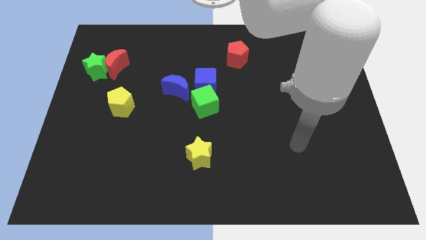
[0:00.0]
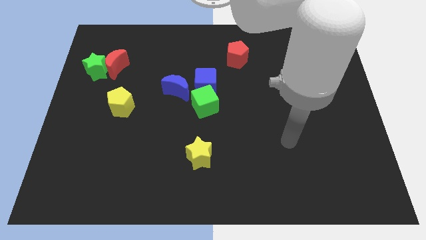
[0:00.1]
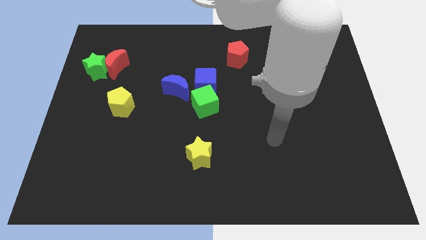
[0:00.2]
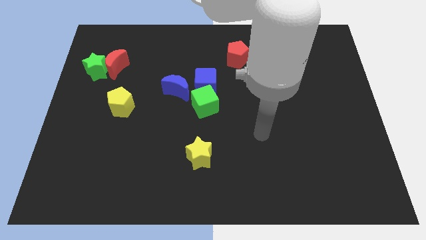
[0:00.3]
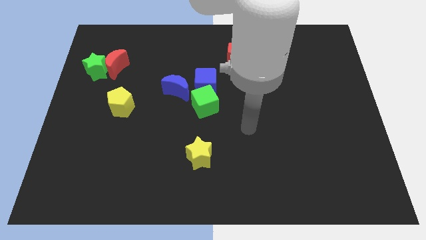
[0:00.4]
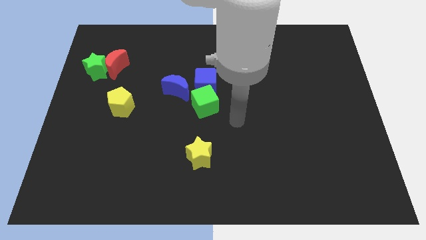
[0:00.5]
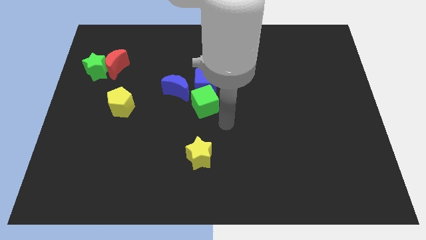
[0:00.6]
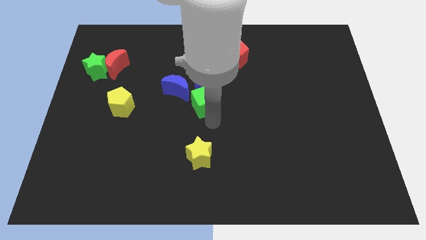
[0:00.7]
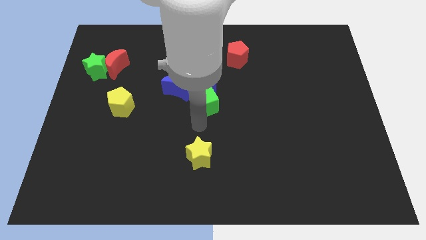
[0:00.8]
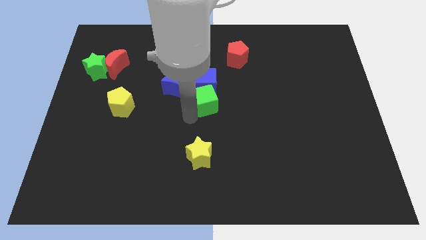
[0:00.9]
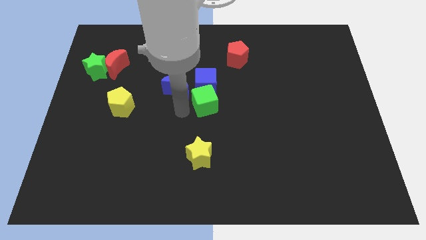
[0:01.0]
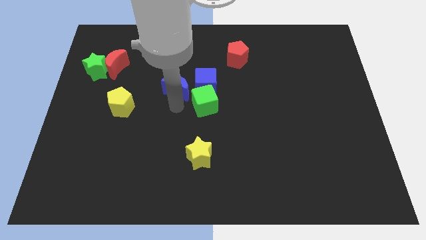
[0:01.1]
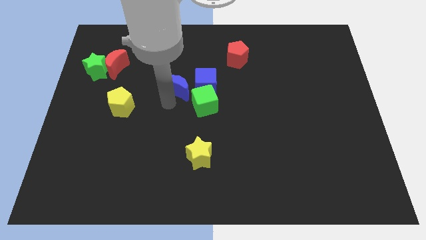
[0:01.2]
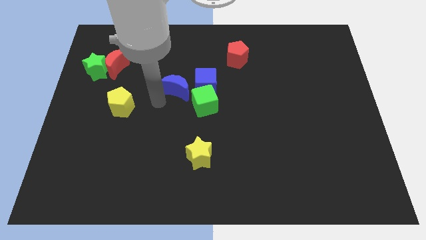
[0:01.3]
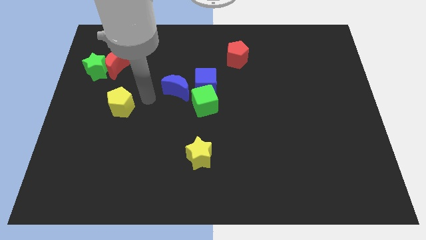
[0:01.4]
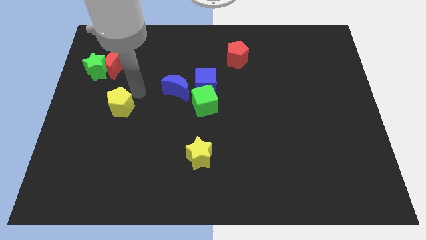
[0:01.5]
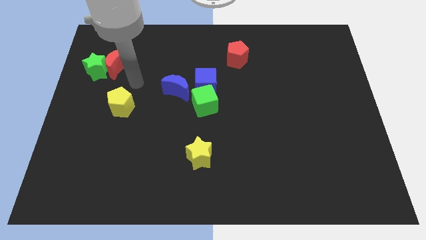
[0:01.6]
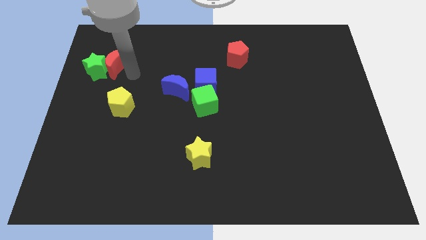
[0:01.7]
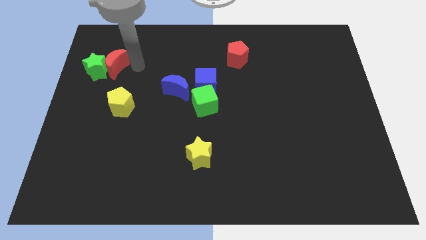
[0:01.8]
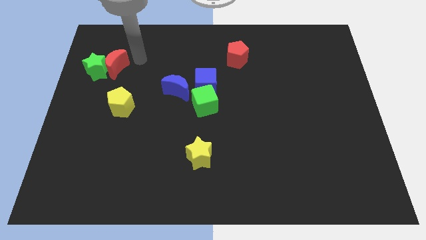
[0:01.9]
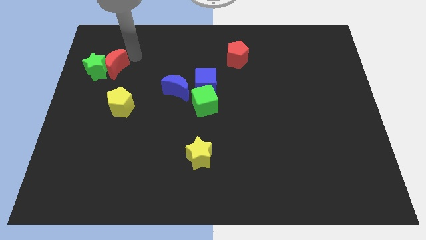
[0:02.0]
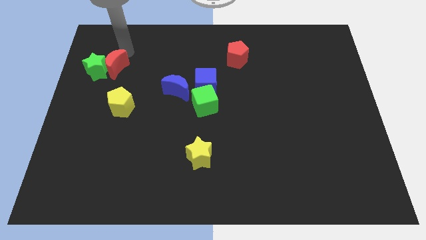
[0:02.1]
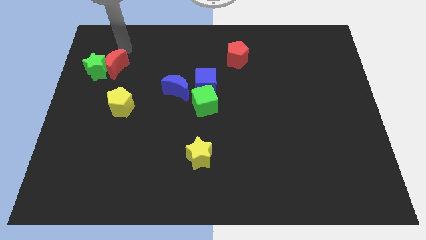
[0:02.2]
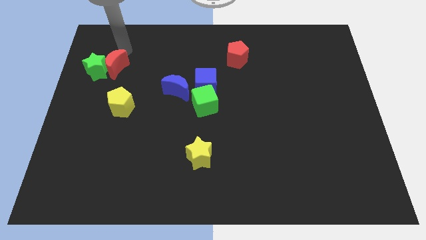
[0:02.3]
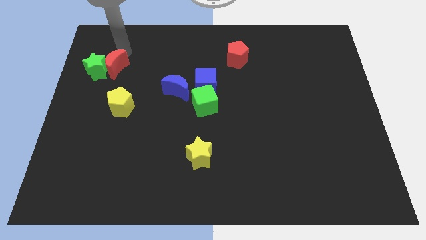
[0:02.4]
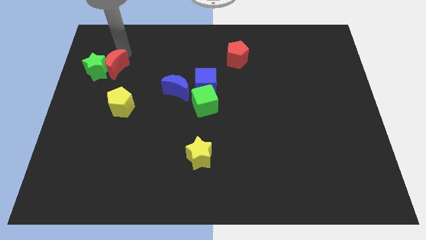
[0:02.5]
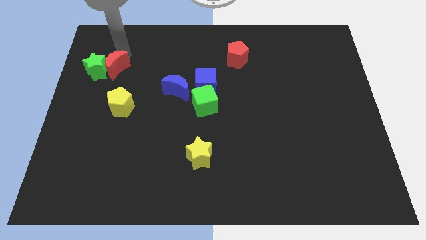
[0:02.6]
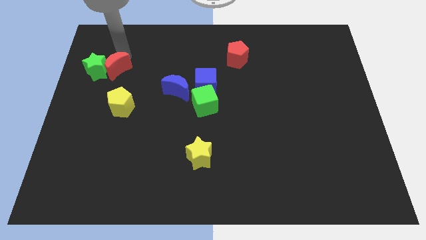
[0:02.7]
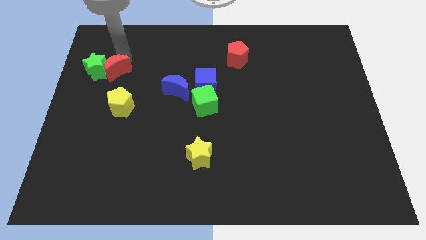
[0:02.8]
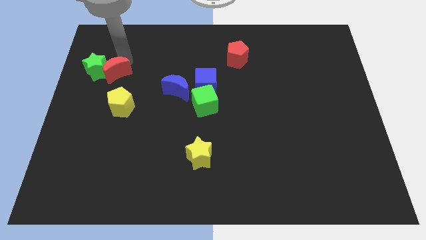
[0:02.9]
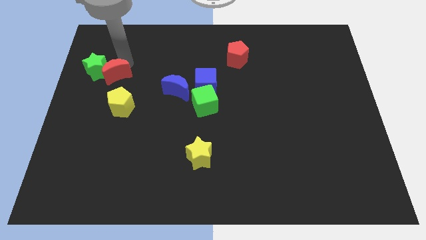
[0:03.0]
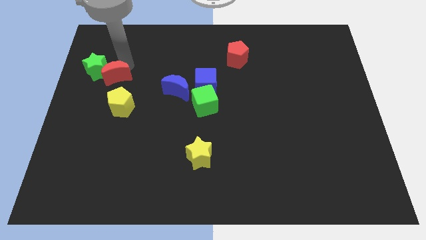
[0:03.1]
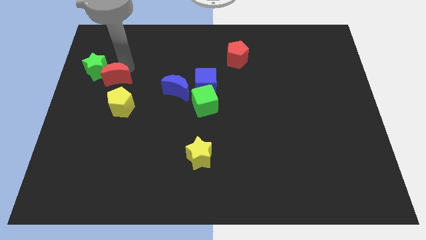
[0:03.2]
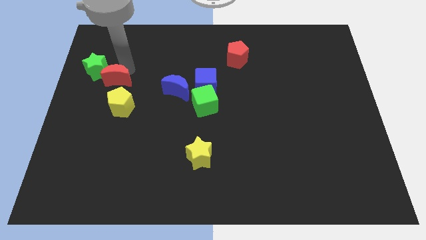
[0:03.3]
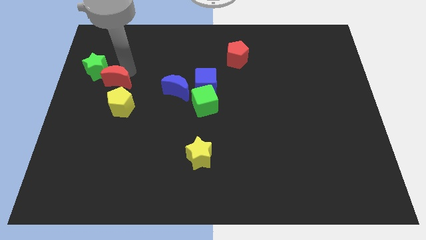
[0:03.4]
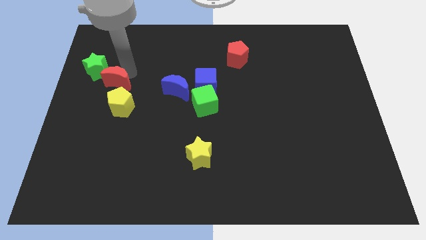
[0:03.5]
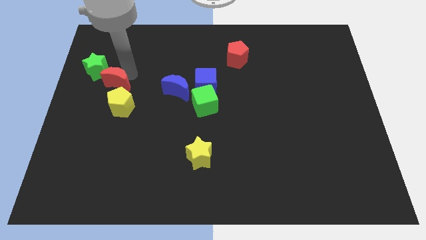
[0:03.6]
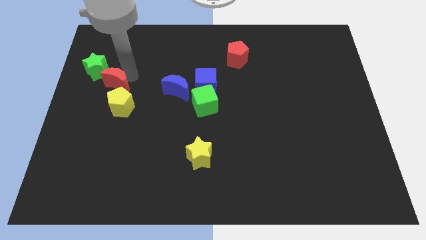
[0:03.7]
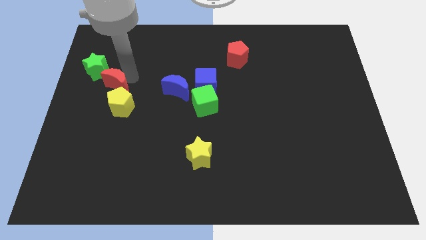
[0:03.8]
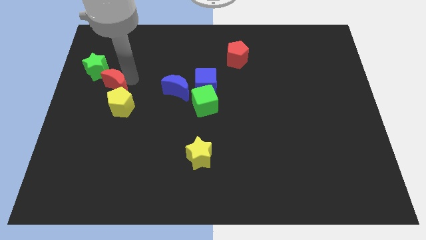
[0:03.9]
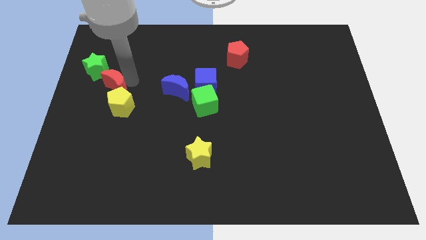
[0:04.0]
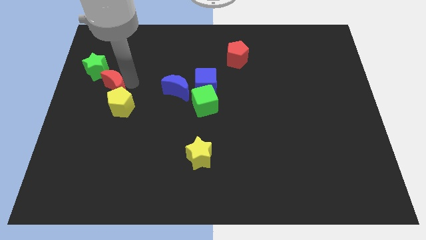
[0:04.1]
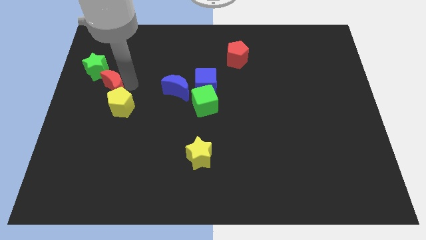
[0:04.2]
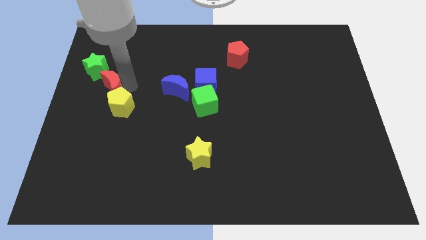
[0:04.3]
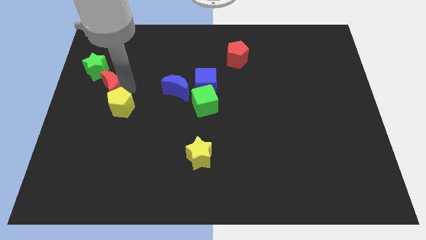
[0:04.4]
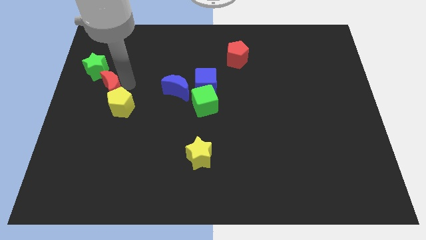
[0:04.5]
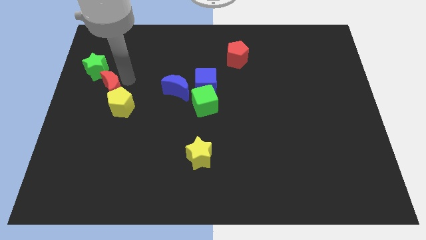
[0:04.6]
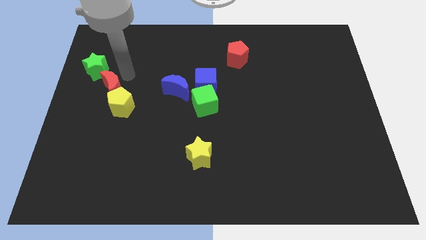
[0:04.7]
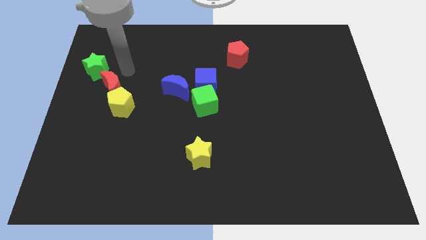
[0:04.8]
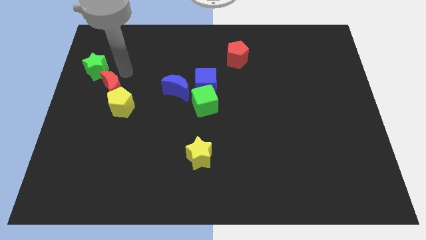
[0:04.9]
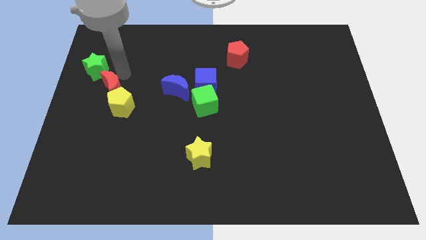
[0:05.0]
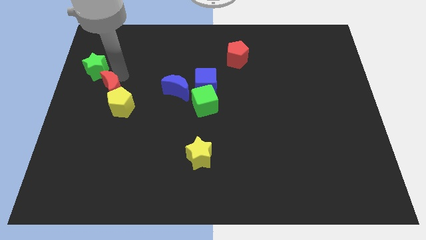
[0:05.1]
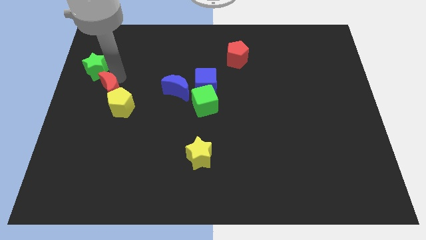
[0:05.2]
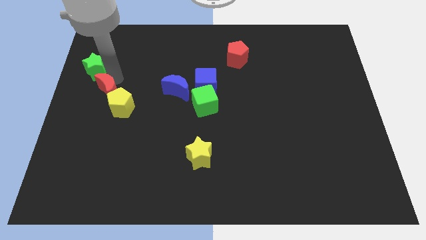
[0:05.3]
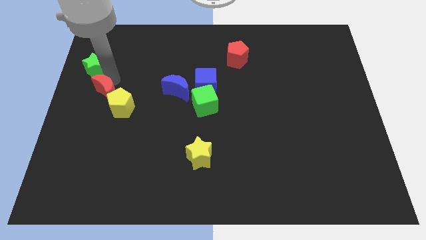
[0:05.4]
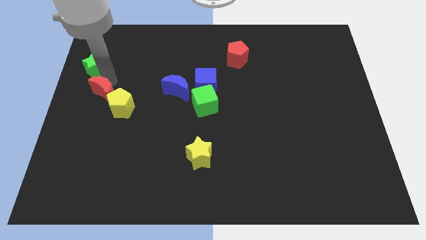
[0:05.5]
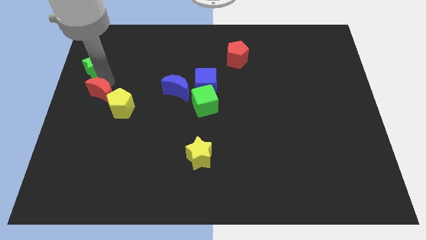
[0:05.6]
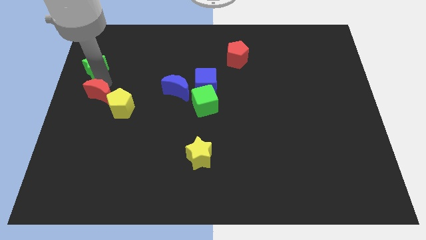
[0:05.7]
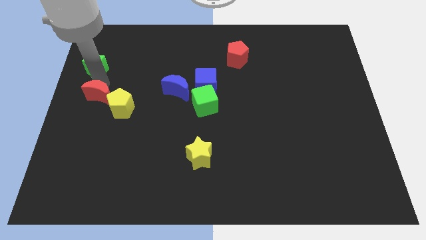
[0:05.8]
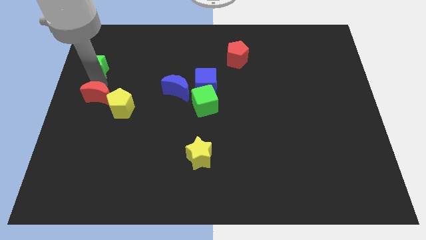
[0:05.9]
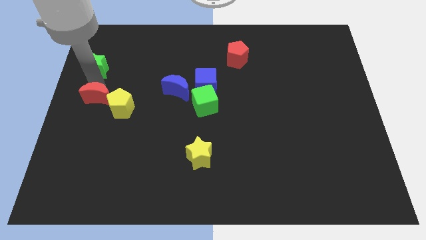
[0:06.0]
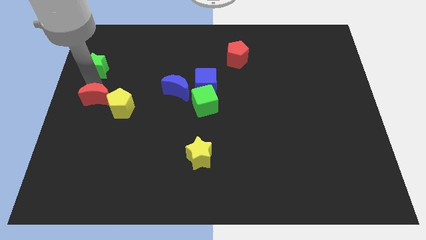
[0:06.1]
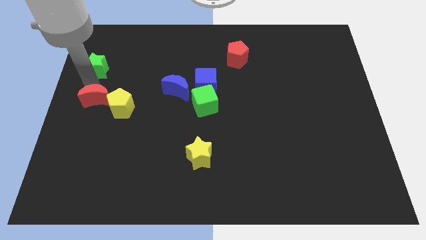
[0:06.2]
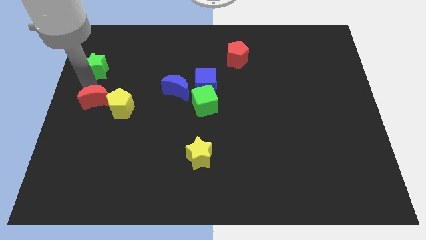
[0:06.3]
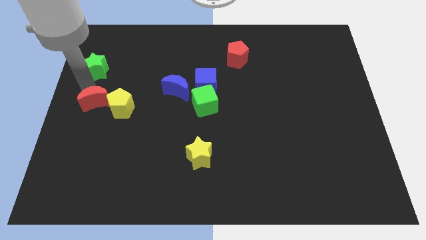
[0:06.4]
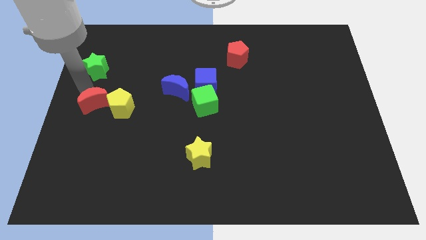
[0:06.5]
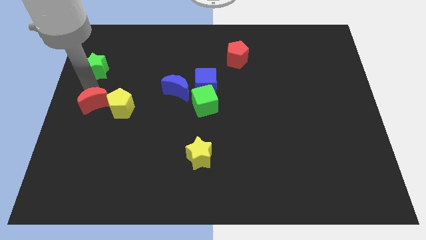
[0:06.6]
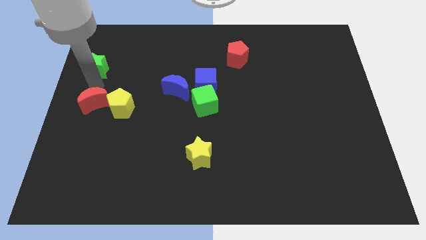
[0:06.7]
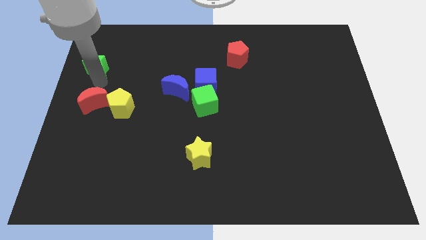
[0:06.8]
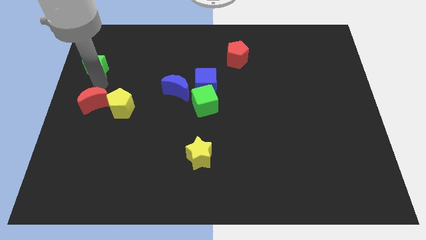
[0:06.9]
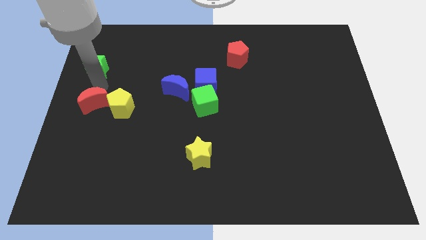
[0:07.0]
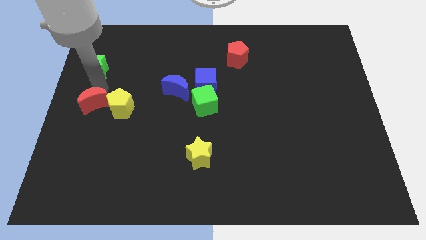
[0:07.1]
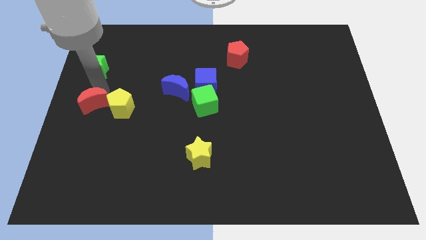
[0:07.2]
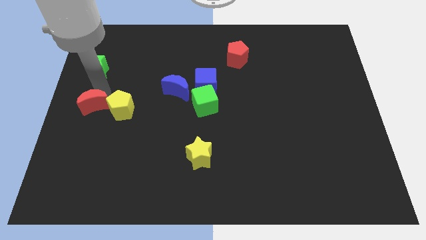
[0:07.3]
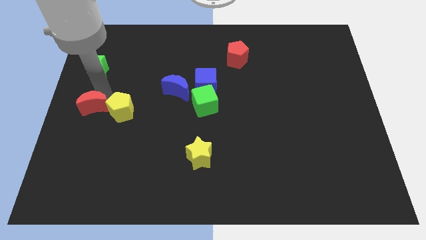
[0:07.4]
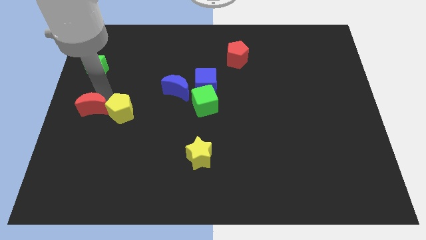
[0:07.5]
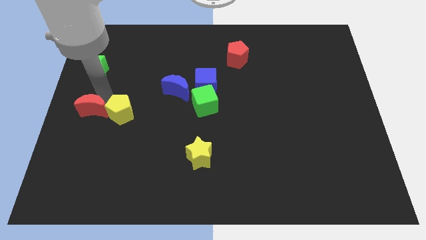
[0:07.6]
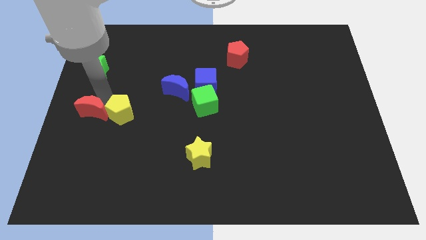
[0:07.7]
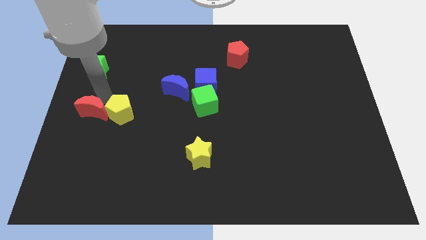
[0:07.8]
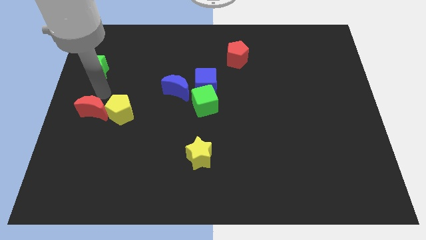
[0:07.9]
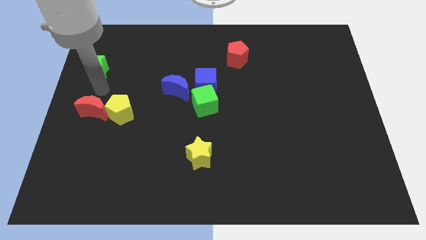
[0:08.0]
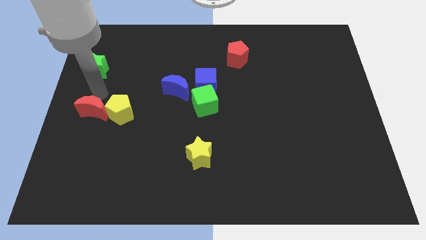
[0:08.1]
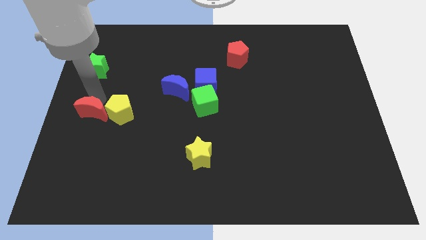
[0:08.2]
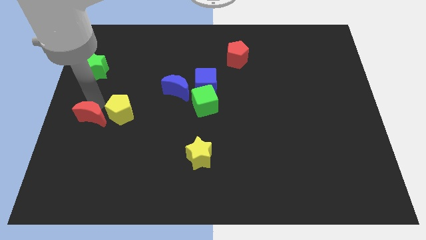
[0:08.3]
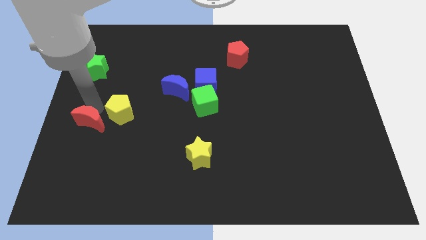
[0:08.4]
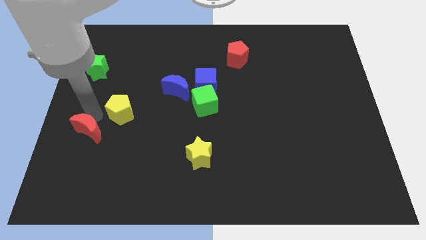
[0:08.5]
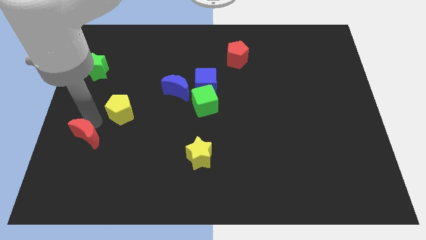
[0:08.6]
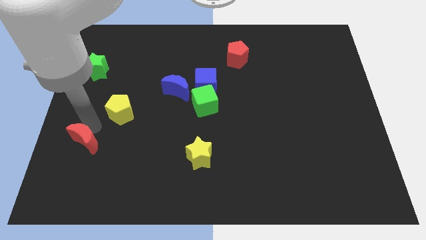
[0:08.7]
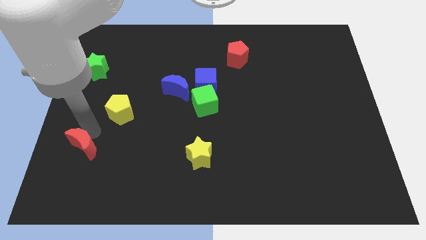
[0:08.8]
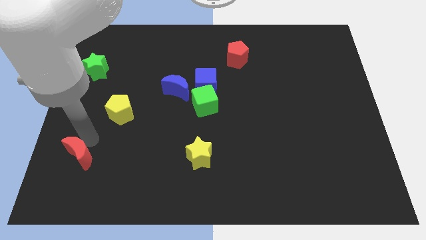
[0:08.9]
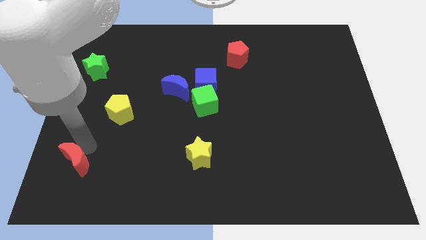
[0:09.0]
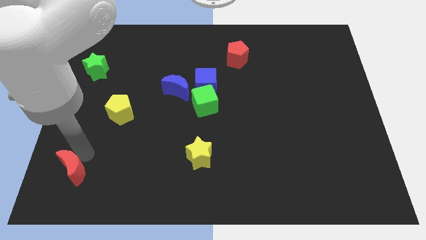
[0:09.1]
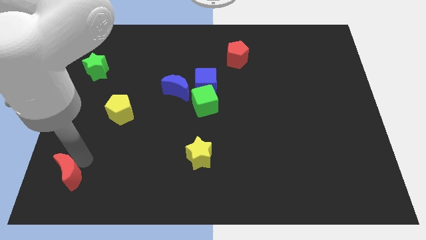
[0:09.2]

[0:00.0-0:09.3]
push the red moon to the bottom left corner
